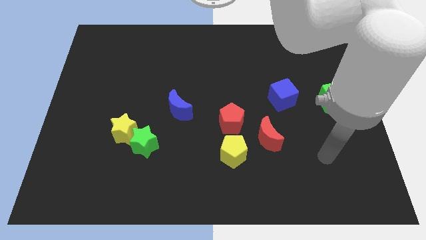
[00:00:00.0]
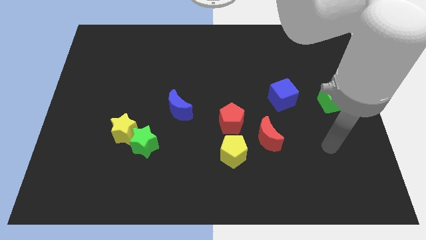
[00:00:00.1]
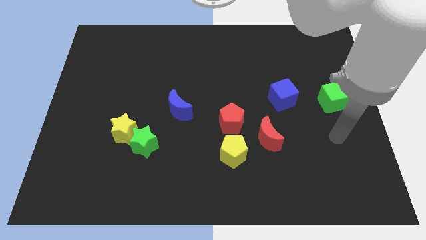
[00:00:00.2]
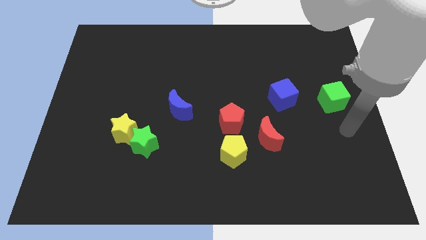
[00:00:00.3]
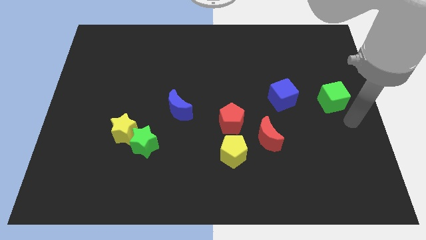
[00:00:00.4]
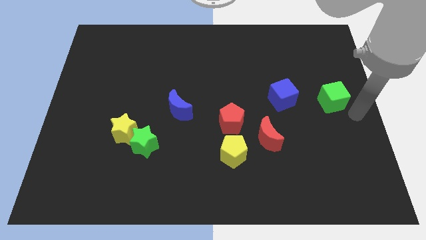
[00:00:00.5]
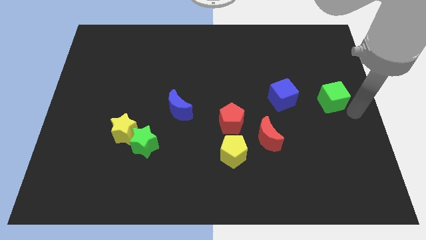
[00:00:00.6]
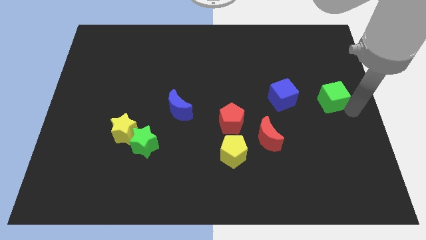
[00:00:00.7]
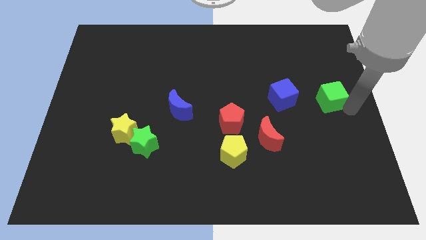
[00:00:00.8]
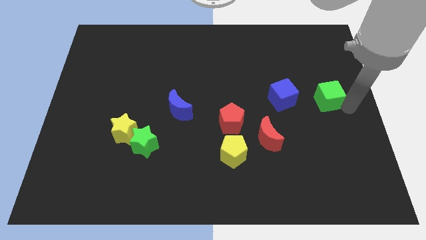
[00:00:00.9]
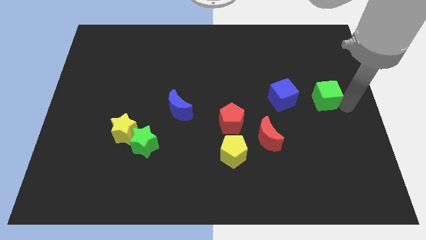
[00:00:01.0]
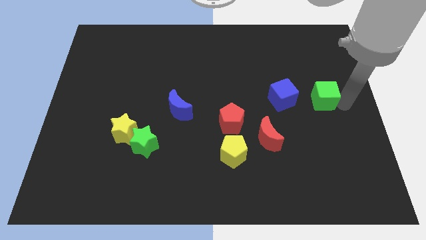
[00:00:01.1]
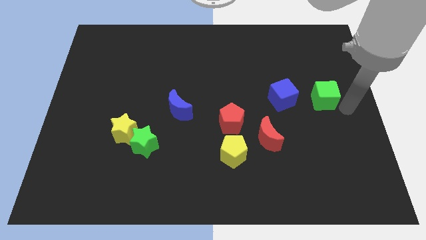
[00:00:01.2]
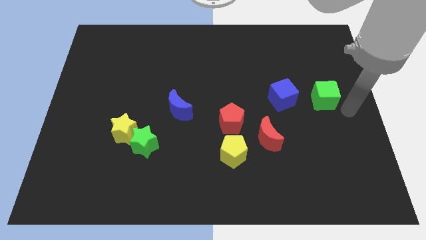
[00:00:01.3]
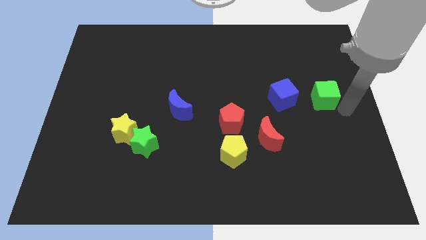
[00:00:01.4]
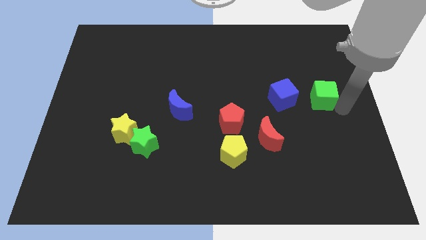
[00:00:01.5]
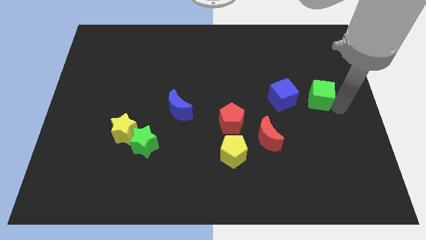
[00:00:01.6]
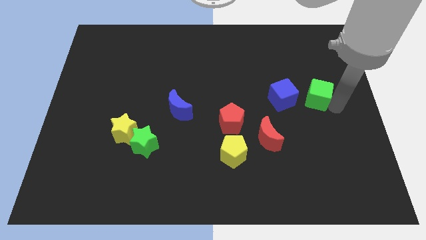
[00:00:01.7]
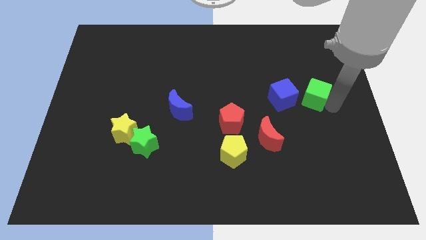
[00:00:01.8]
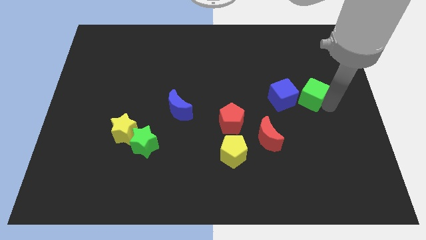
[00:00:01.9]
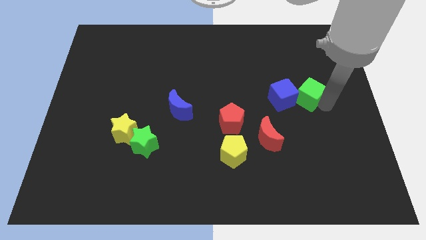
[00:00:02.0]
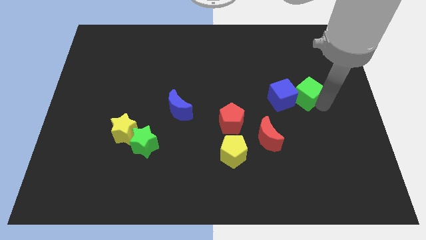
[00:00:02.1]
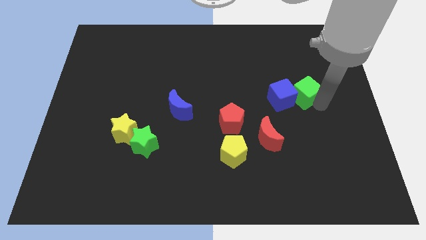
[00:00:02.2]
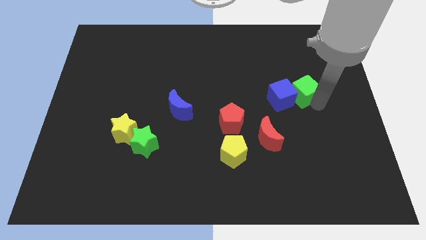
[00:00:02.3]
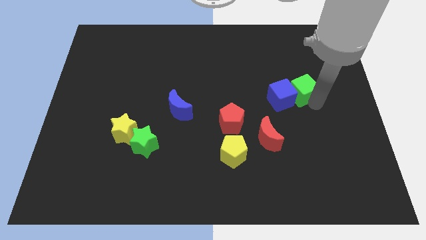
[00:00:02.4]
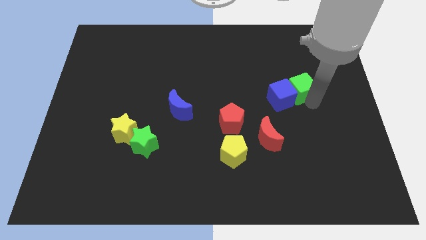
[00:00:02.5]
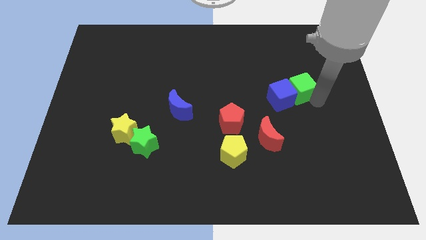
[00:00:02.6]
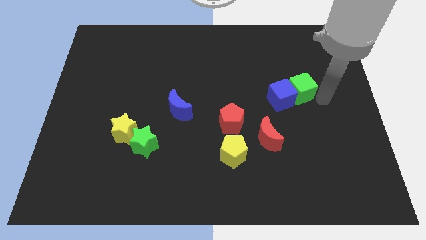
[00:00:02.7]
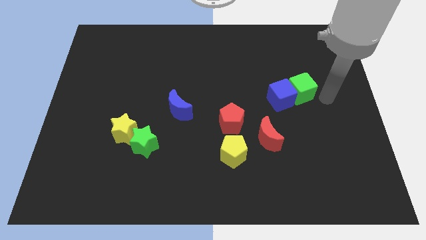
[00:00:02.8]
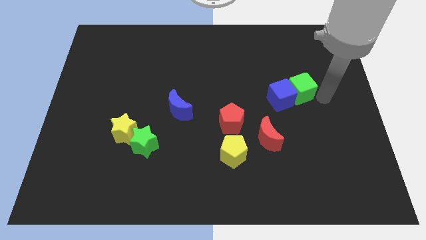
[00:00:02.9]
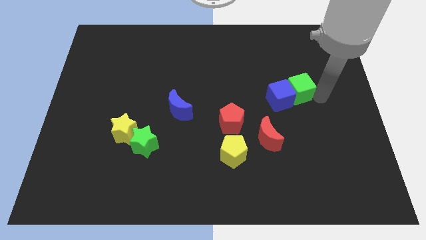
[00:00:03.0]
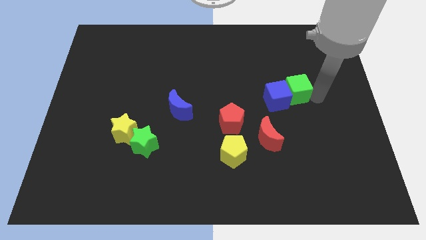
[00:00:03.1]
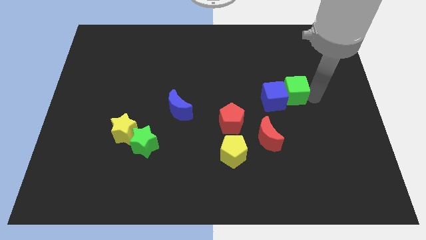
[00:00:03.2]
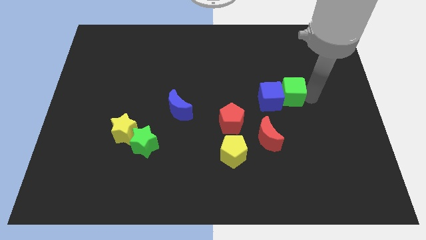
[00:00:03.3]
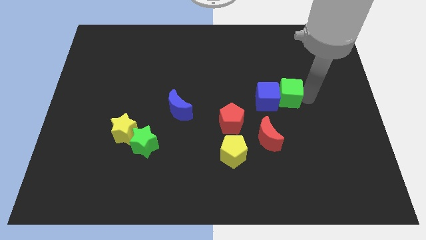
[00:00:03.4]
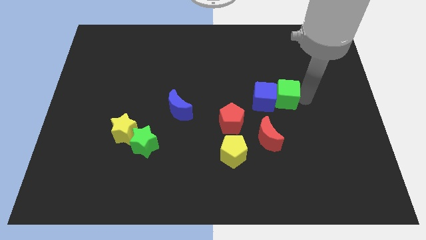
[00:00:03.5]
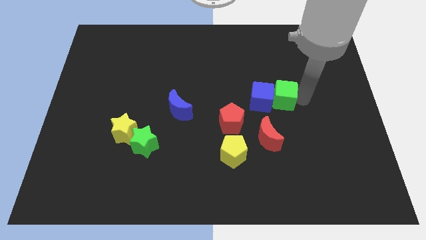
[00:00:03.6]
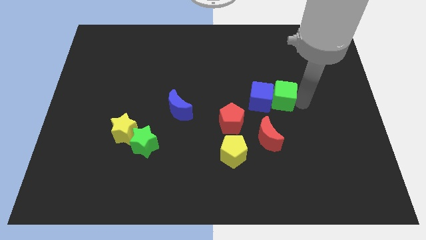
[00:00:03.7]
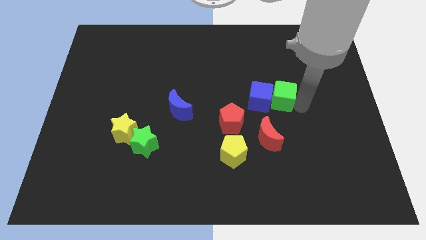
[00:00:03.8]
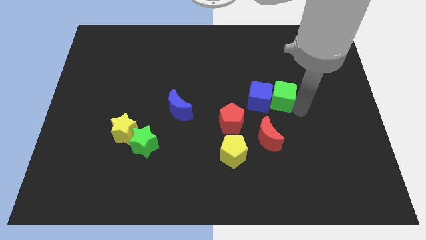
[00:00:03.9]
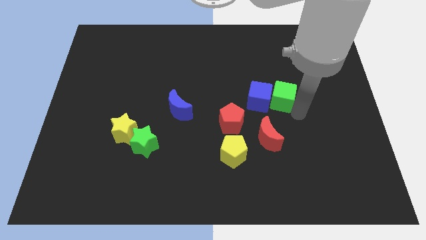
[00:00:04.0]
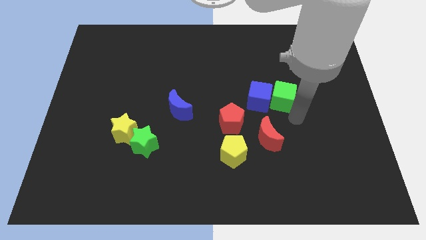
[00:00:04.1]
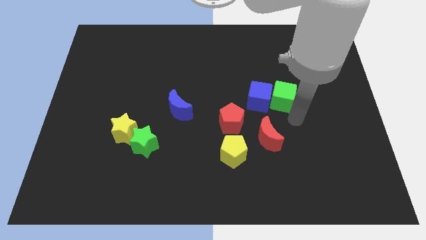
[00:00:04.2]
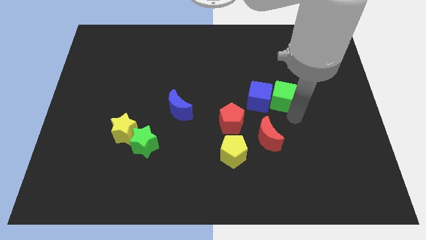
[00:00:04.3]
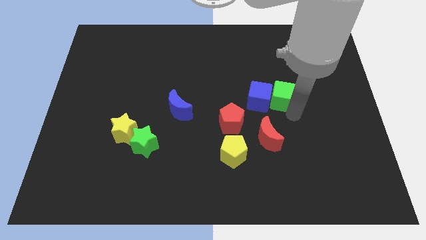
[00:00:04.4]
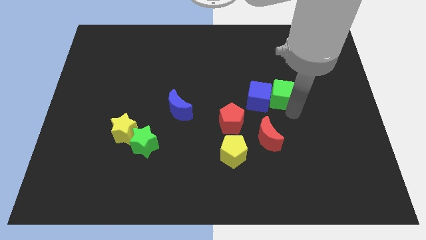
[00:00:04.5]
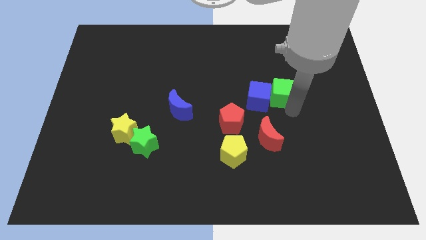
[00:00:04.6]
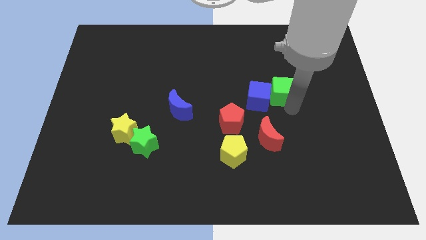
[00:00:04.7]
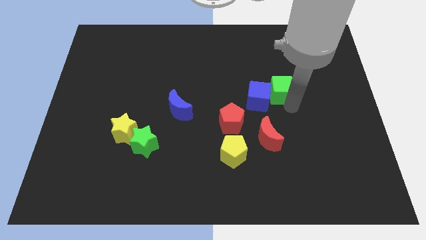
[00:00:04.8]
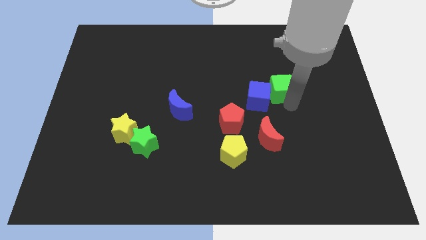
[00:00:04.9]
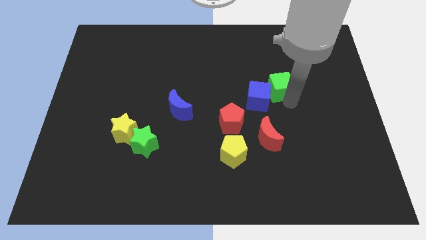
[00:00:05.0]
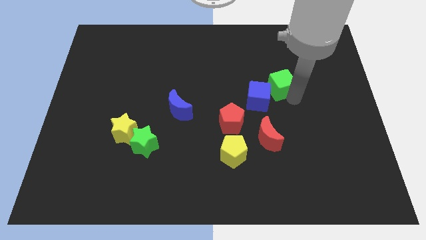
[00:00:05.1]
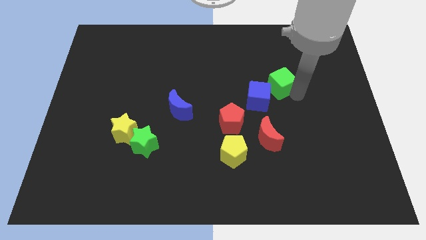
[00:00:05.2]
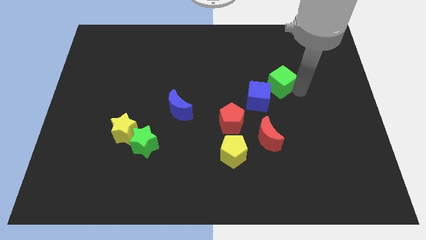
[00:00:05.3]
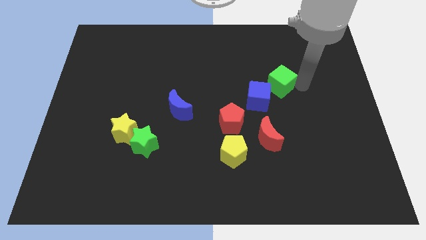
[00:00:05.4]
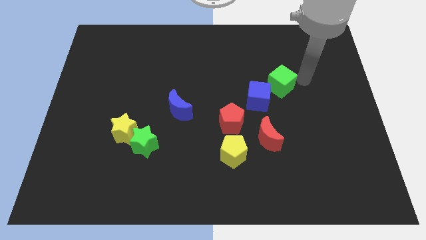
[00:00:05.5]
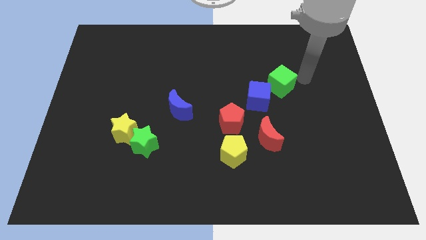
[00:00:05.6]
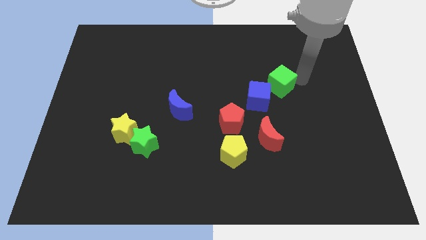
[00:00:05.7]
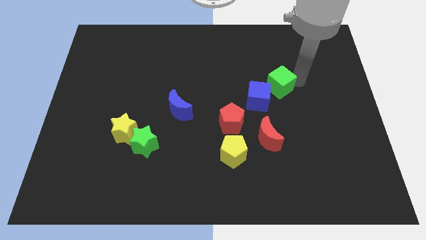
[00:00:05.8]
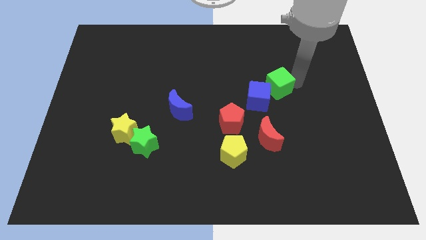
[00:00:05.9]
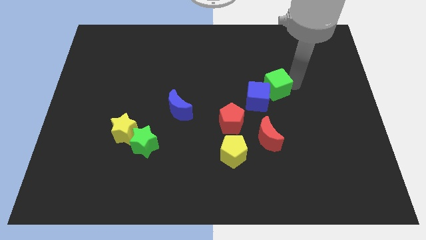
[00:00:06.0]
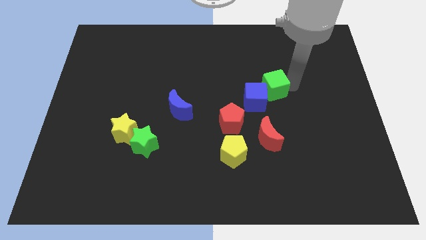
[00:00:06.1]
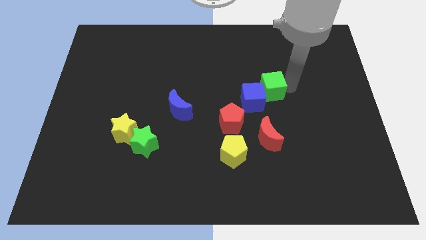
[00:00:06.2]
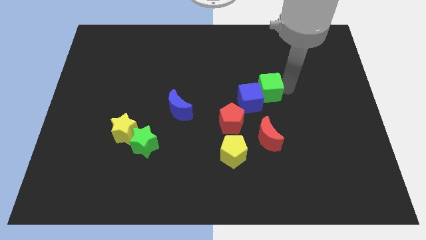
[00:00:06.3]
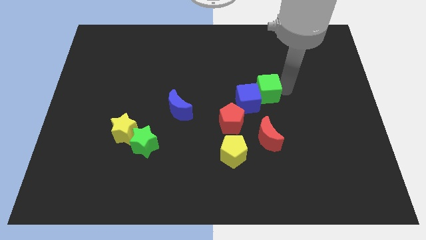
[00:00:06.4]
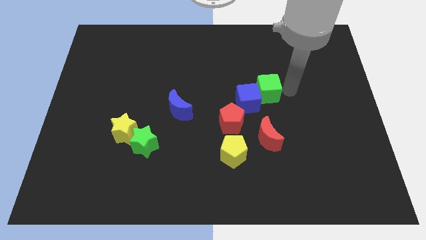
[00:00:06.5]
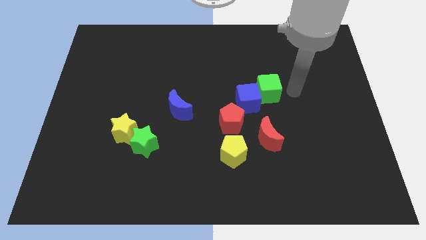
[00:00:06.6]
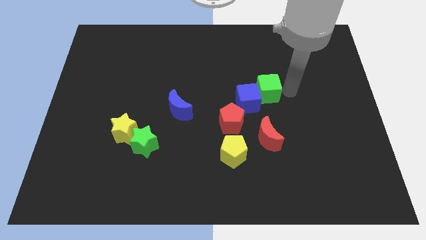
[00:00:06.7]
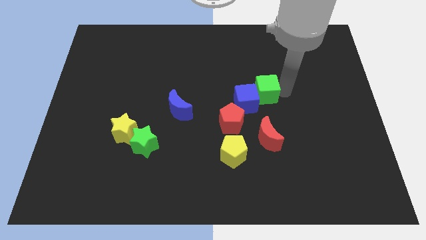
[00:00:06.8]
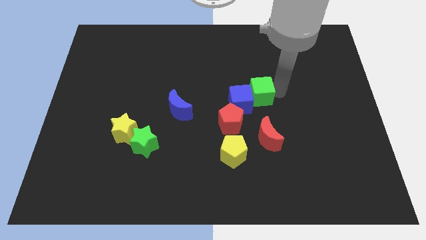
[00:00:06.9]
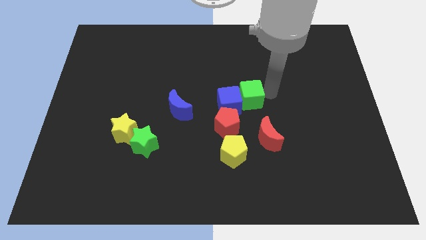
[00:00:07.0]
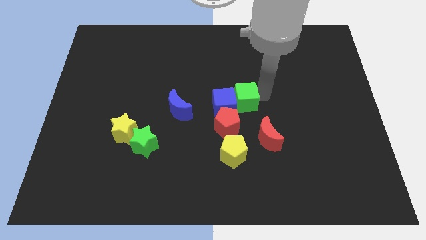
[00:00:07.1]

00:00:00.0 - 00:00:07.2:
move the green cube to the left

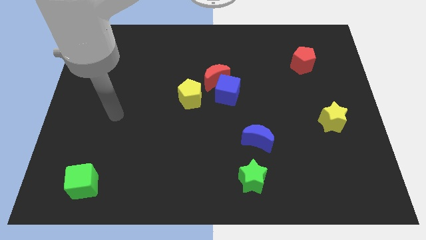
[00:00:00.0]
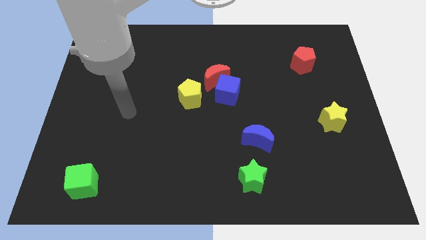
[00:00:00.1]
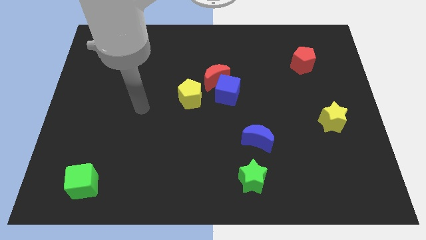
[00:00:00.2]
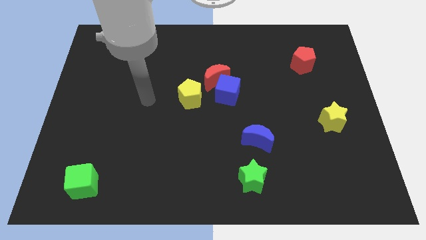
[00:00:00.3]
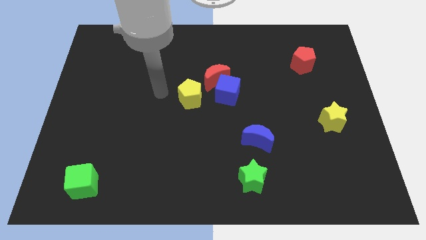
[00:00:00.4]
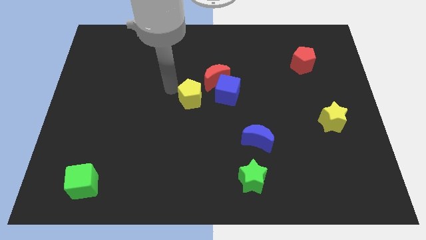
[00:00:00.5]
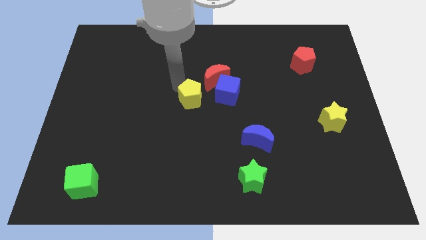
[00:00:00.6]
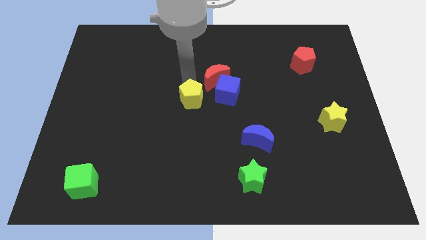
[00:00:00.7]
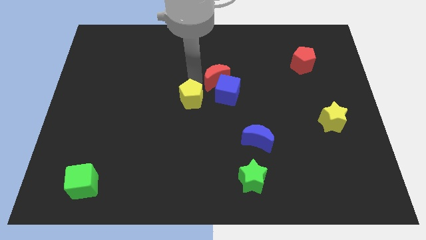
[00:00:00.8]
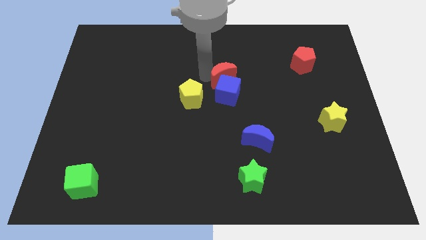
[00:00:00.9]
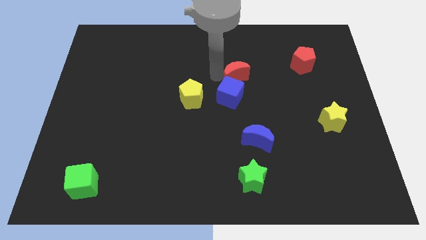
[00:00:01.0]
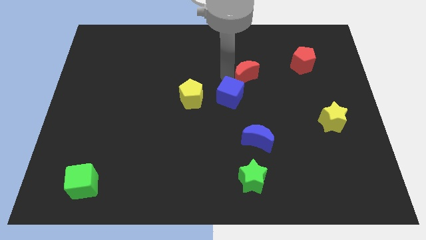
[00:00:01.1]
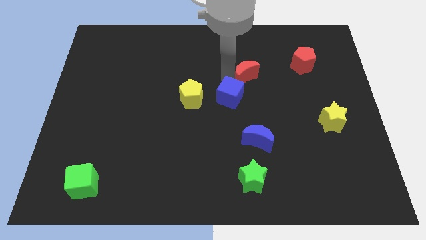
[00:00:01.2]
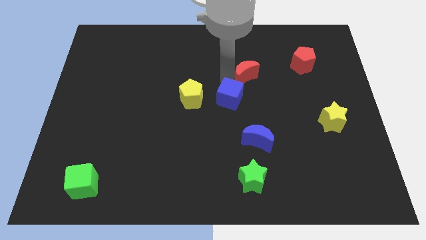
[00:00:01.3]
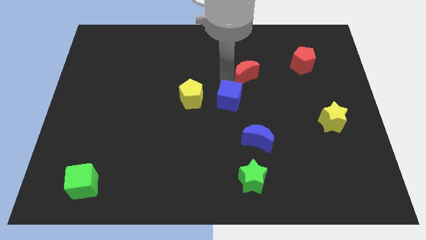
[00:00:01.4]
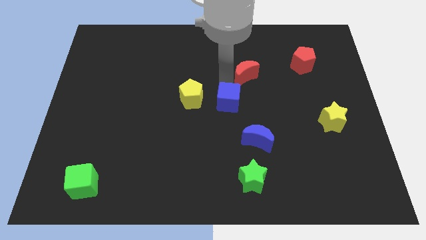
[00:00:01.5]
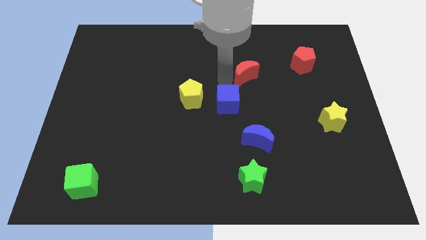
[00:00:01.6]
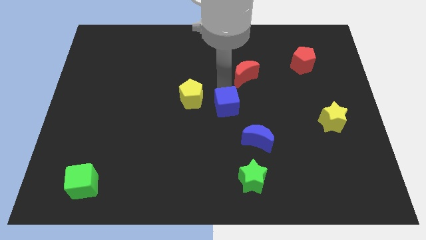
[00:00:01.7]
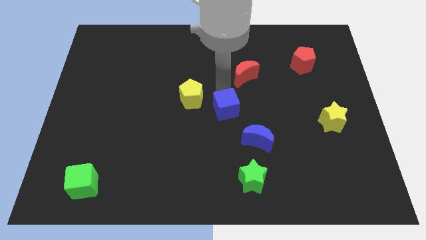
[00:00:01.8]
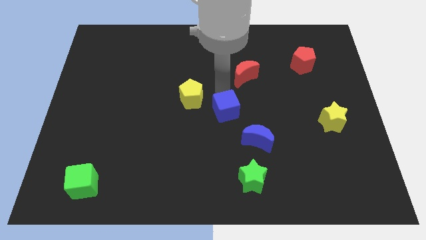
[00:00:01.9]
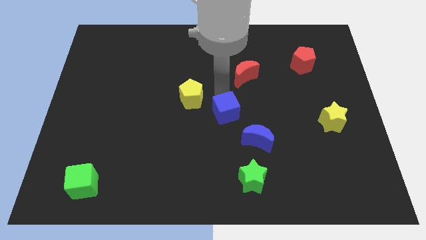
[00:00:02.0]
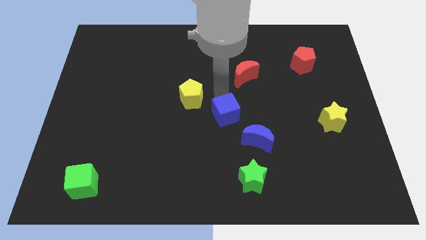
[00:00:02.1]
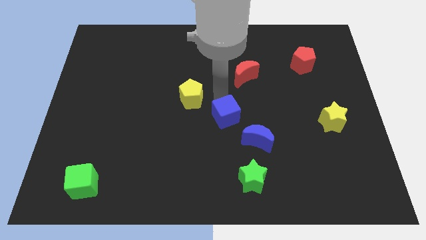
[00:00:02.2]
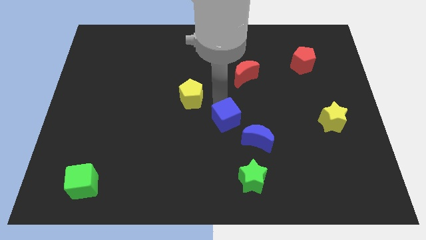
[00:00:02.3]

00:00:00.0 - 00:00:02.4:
push the blue cube a little bit down
